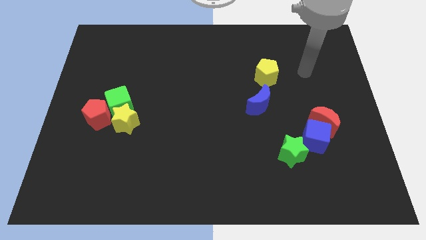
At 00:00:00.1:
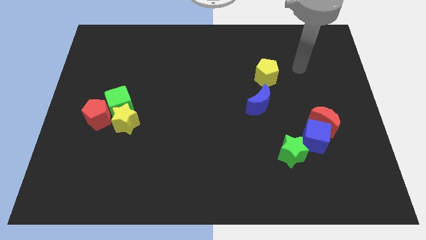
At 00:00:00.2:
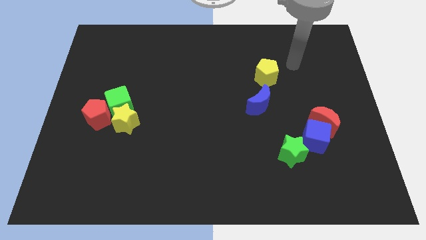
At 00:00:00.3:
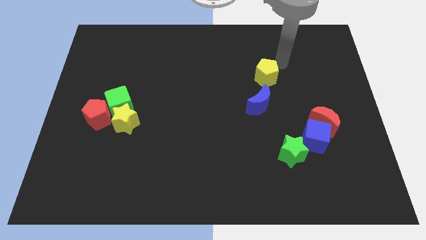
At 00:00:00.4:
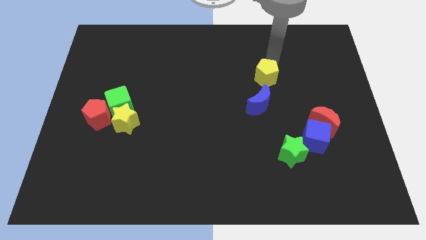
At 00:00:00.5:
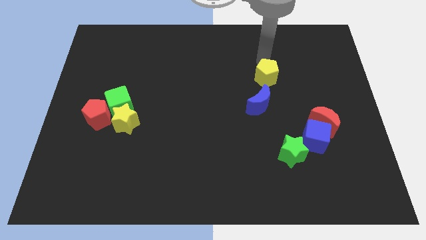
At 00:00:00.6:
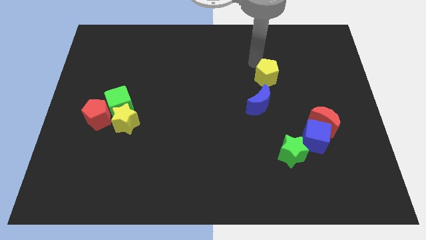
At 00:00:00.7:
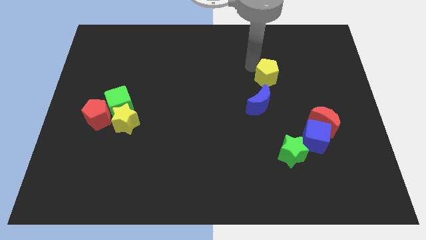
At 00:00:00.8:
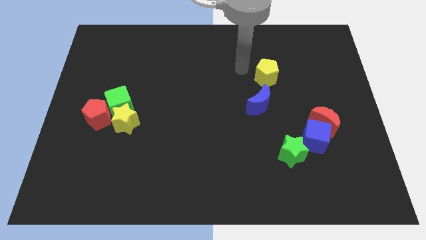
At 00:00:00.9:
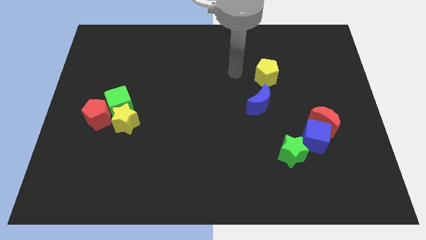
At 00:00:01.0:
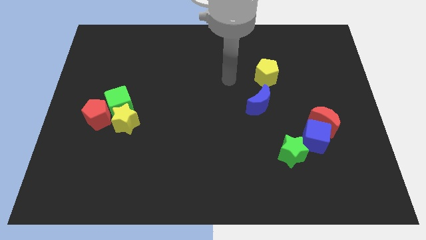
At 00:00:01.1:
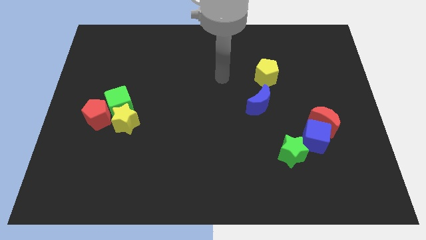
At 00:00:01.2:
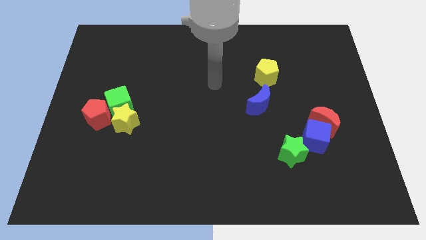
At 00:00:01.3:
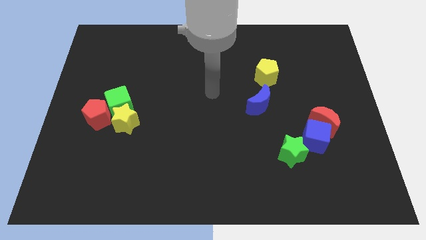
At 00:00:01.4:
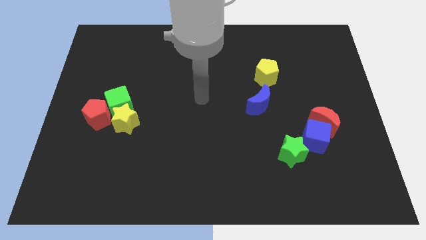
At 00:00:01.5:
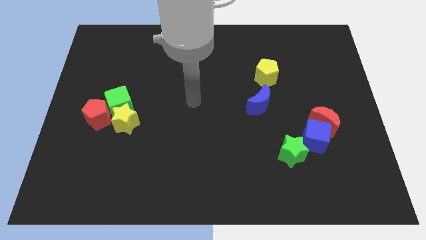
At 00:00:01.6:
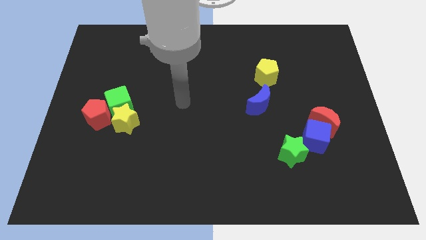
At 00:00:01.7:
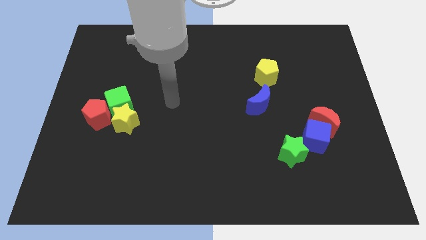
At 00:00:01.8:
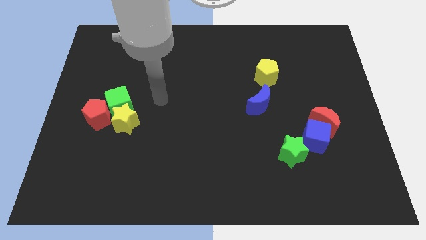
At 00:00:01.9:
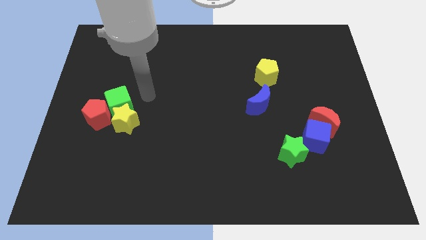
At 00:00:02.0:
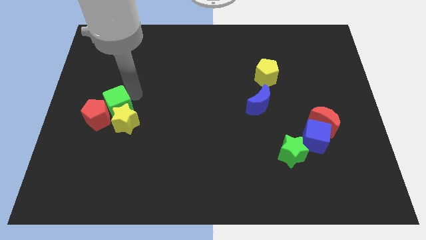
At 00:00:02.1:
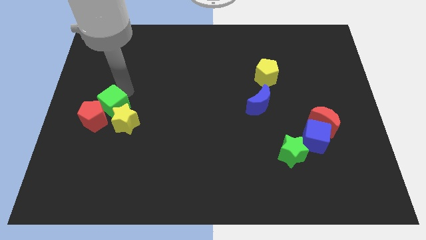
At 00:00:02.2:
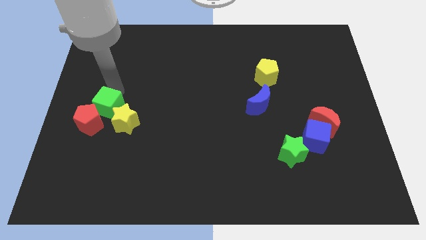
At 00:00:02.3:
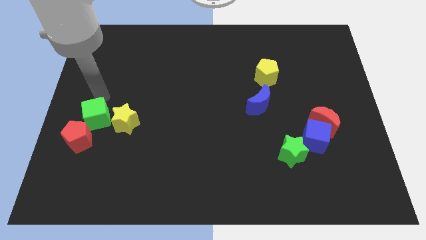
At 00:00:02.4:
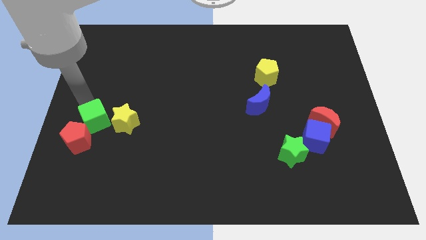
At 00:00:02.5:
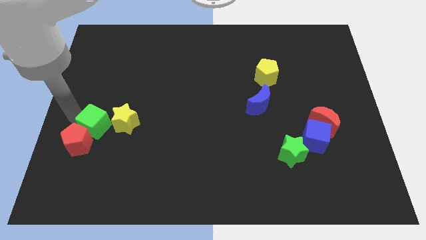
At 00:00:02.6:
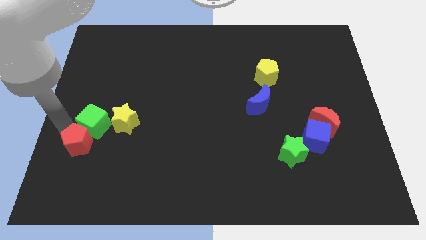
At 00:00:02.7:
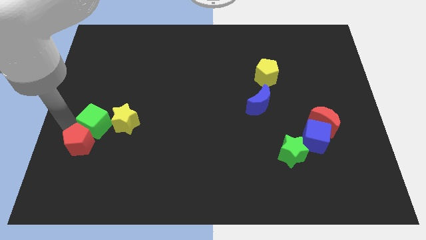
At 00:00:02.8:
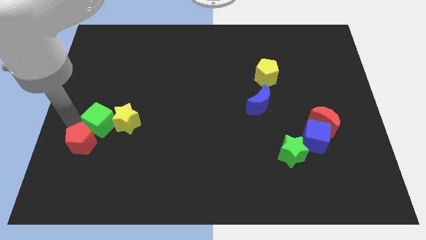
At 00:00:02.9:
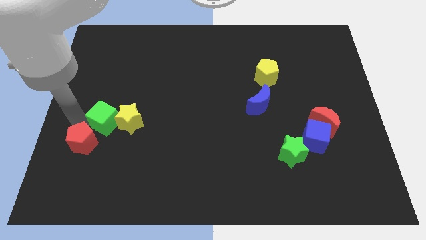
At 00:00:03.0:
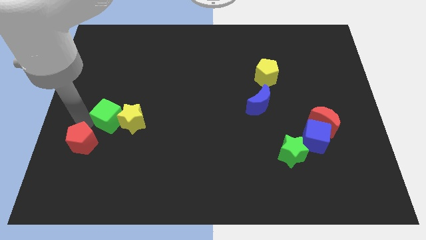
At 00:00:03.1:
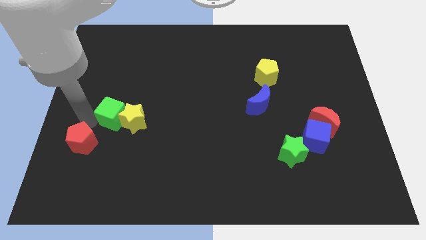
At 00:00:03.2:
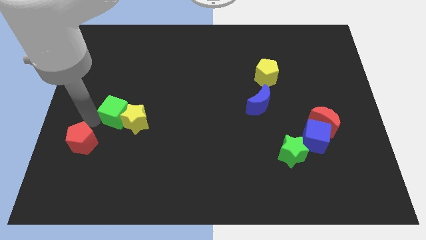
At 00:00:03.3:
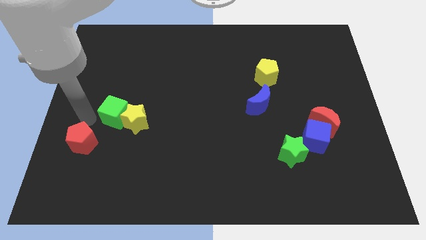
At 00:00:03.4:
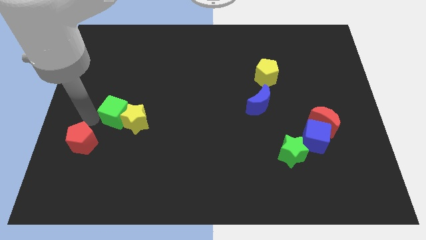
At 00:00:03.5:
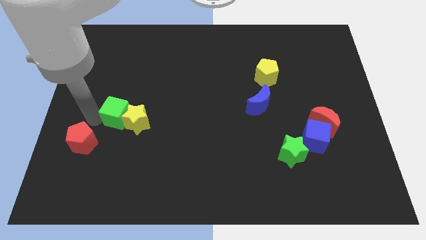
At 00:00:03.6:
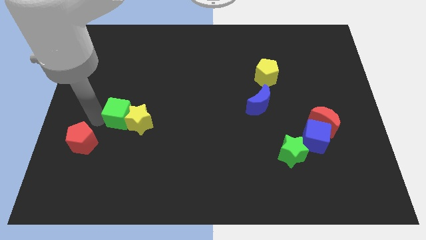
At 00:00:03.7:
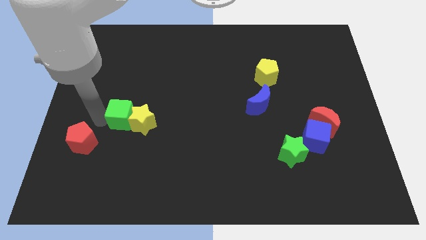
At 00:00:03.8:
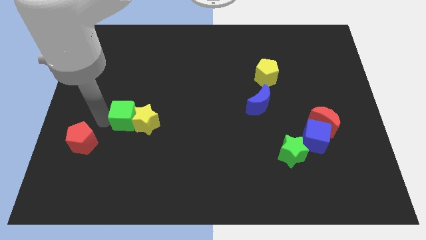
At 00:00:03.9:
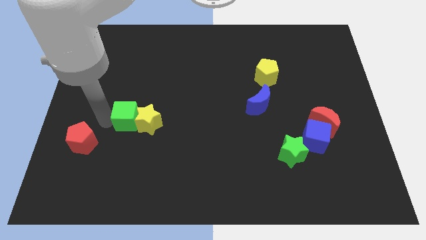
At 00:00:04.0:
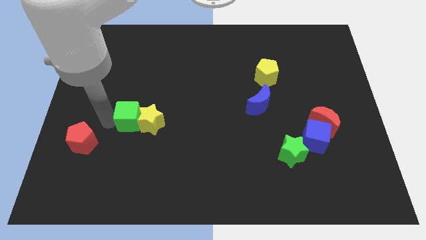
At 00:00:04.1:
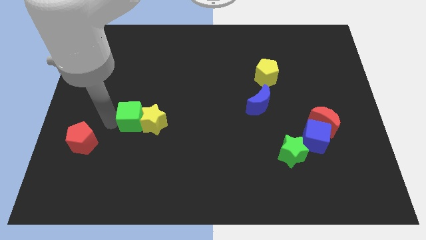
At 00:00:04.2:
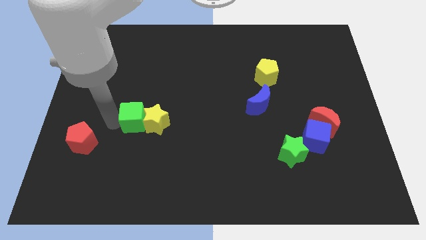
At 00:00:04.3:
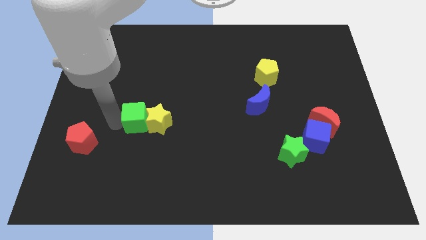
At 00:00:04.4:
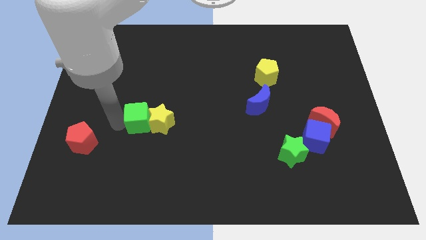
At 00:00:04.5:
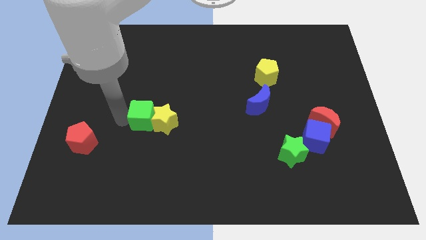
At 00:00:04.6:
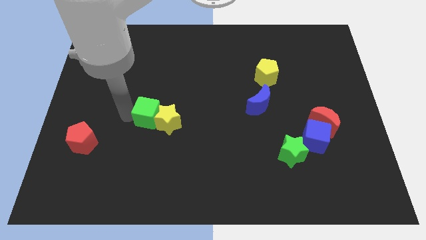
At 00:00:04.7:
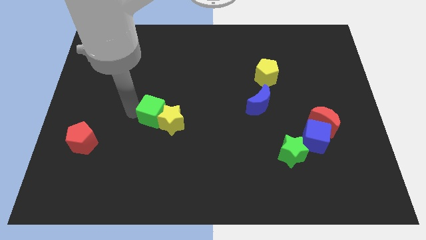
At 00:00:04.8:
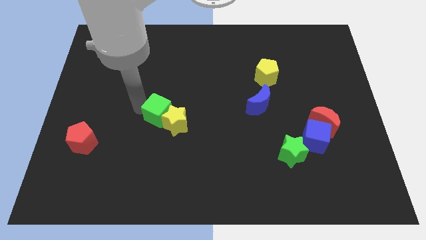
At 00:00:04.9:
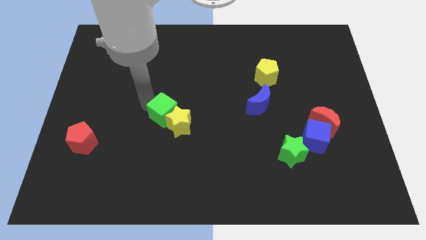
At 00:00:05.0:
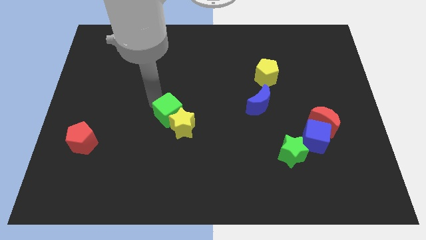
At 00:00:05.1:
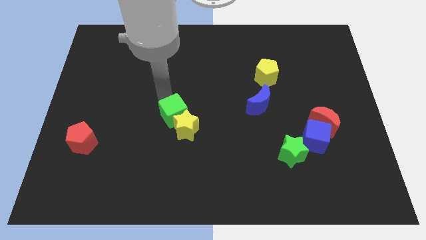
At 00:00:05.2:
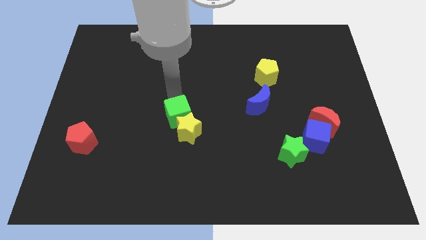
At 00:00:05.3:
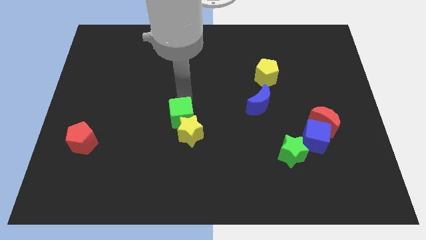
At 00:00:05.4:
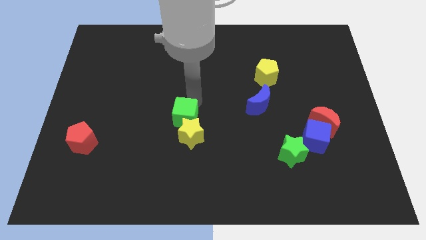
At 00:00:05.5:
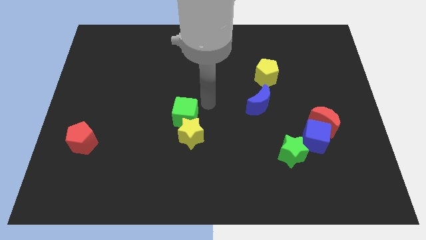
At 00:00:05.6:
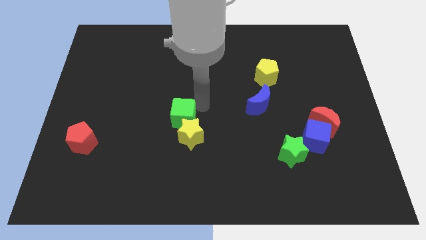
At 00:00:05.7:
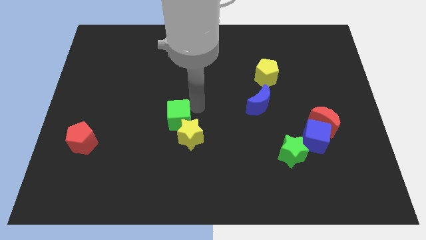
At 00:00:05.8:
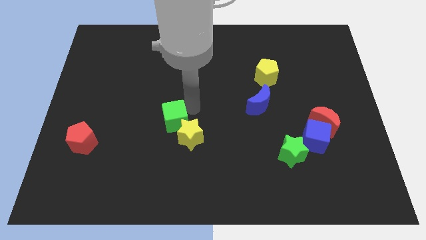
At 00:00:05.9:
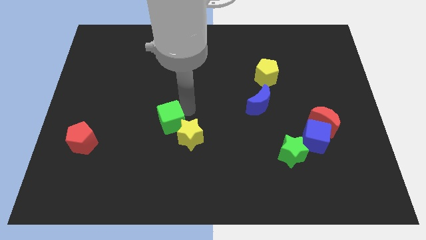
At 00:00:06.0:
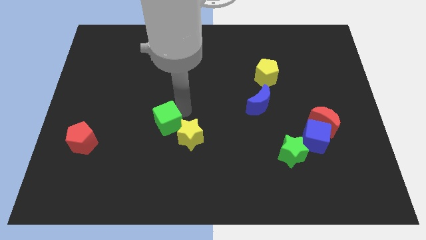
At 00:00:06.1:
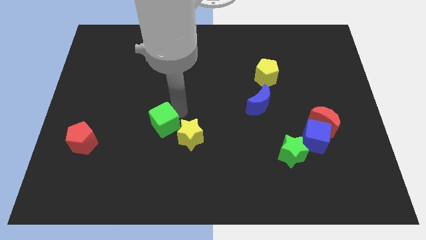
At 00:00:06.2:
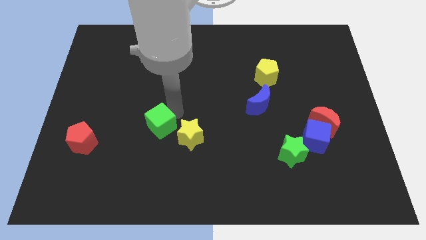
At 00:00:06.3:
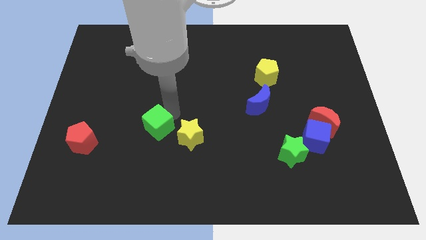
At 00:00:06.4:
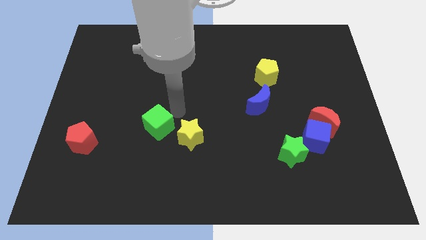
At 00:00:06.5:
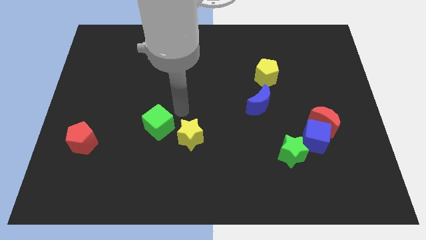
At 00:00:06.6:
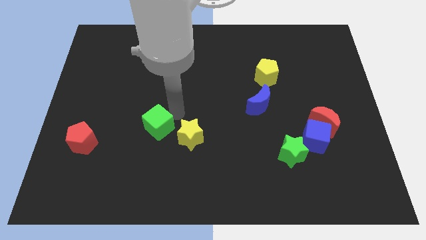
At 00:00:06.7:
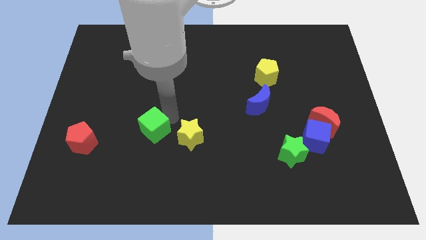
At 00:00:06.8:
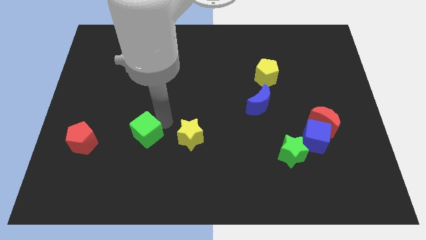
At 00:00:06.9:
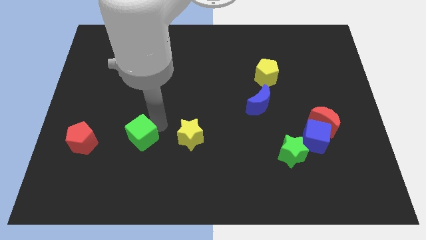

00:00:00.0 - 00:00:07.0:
move the green cube downwards somewhat

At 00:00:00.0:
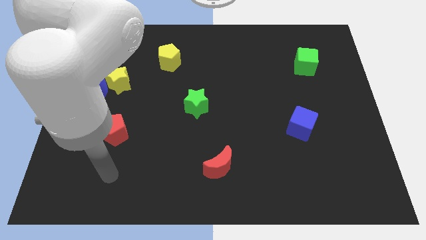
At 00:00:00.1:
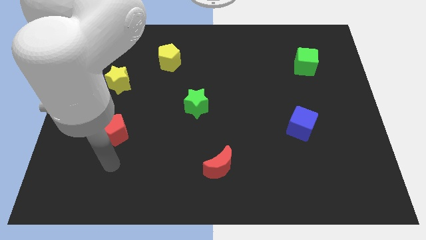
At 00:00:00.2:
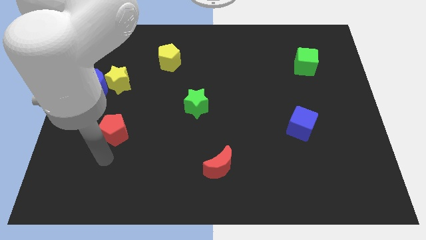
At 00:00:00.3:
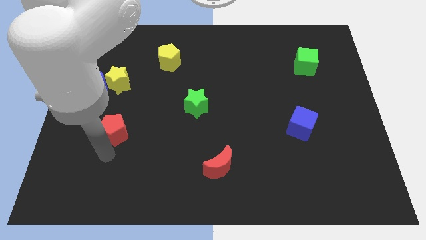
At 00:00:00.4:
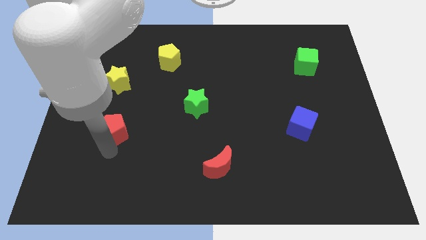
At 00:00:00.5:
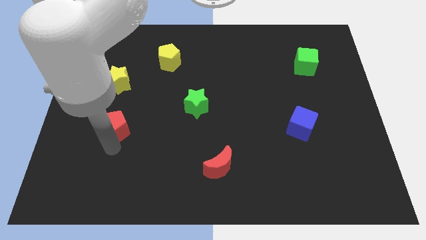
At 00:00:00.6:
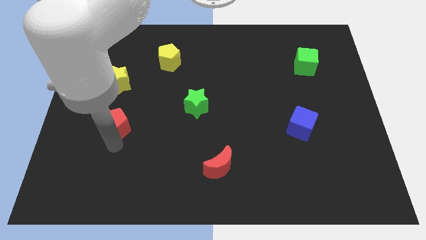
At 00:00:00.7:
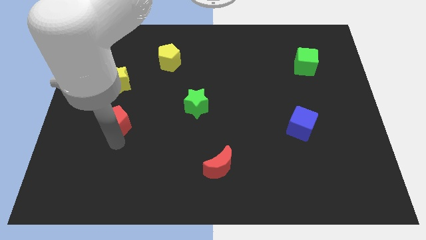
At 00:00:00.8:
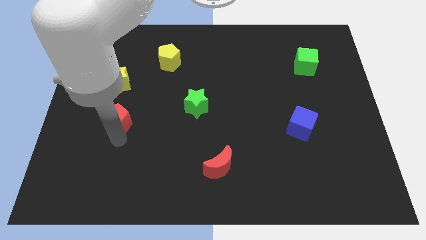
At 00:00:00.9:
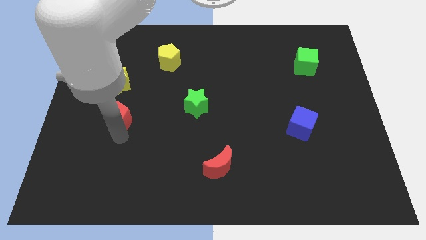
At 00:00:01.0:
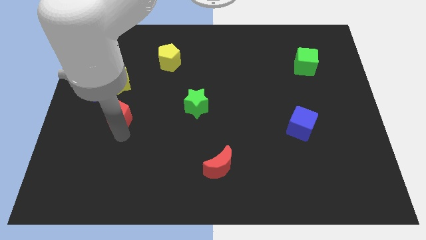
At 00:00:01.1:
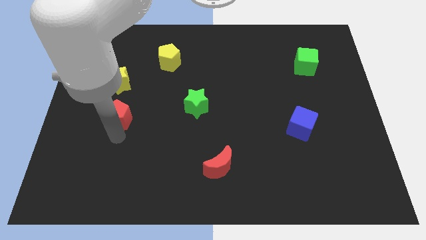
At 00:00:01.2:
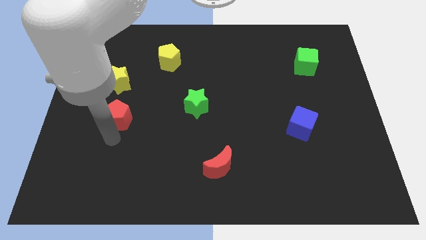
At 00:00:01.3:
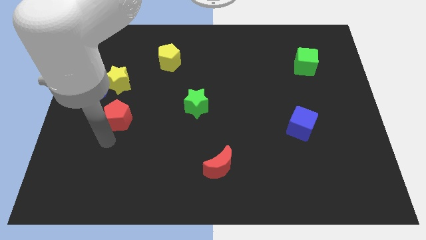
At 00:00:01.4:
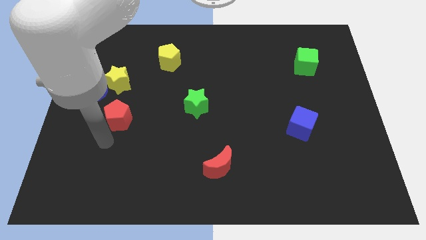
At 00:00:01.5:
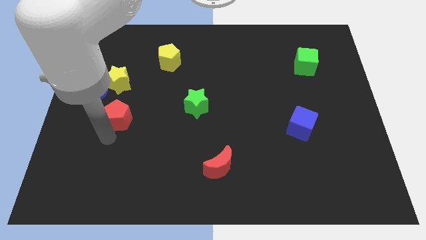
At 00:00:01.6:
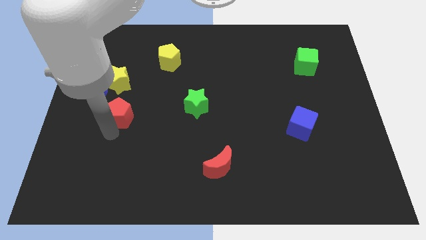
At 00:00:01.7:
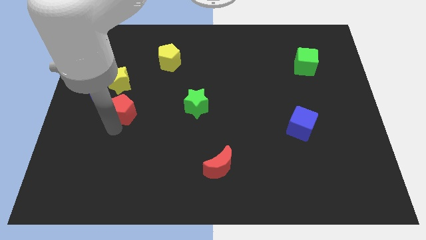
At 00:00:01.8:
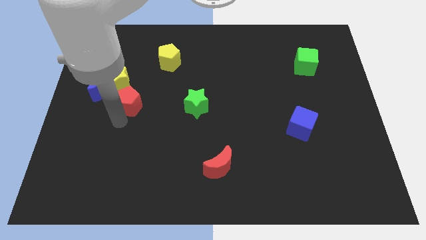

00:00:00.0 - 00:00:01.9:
move the red pentagon up a little bit
